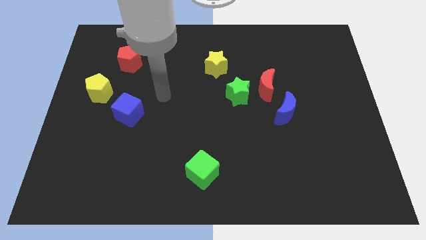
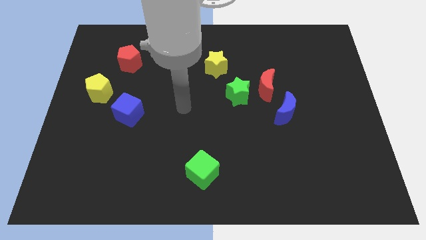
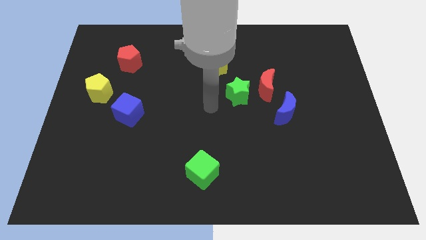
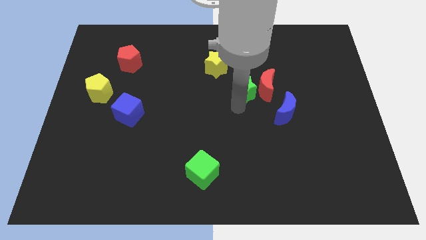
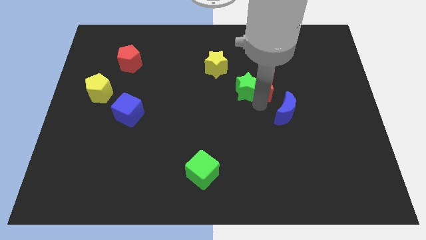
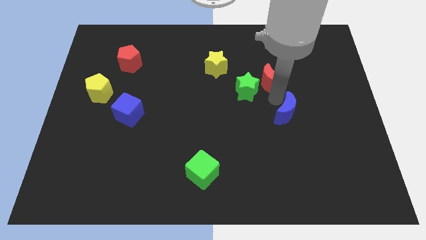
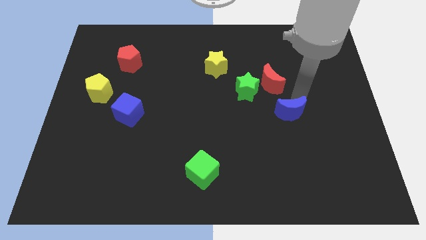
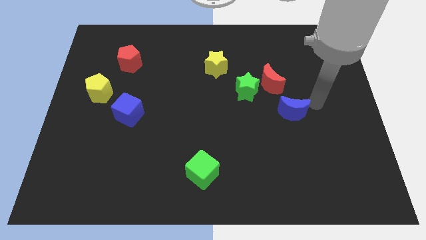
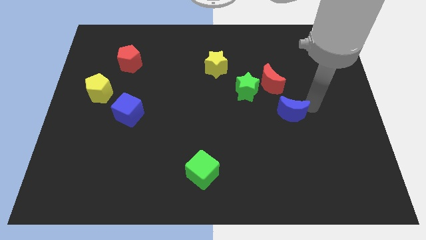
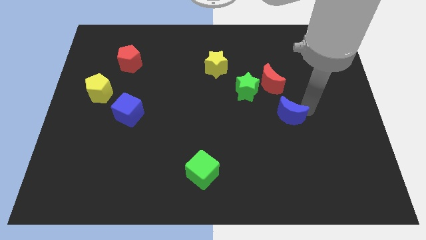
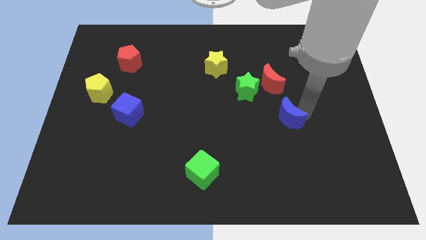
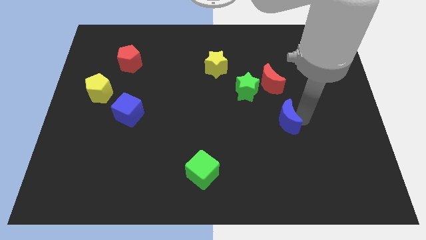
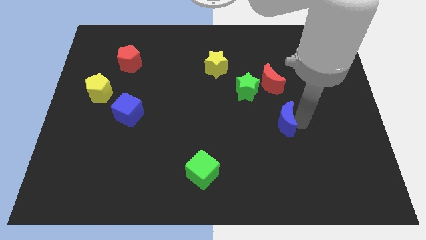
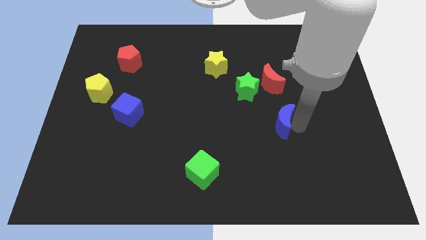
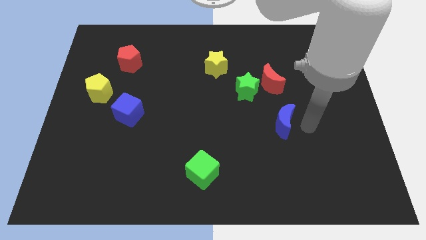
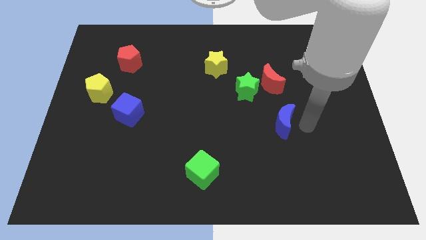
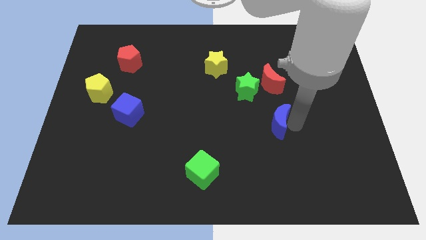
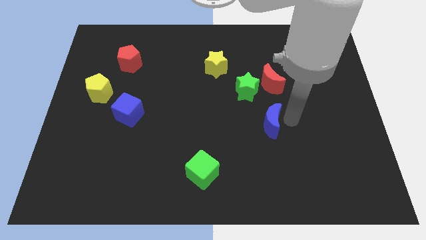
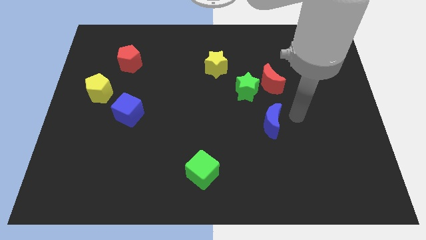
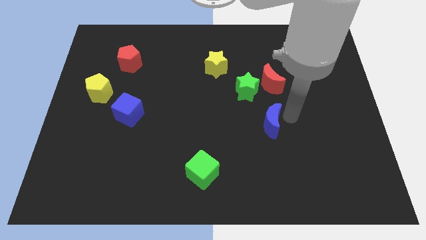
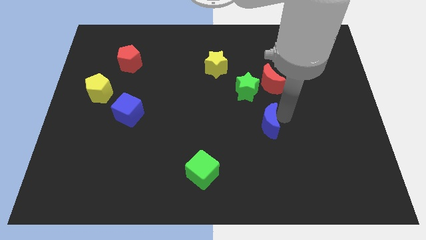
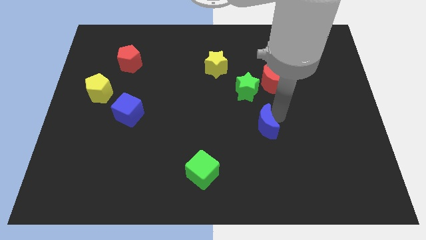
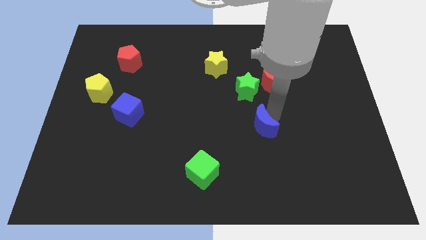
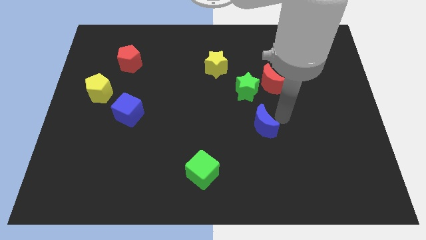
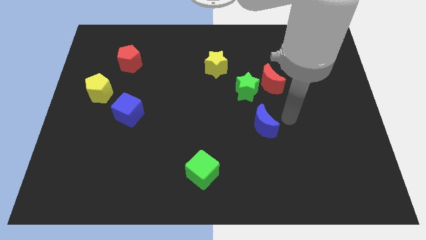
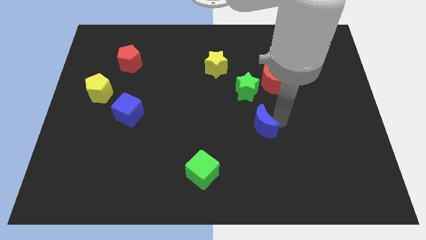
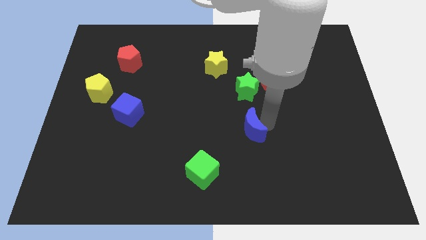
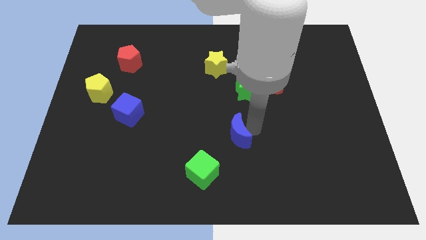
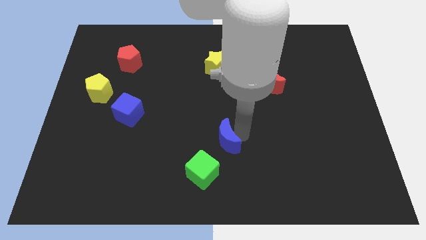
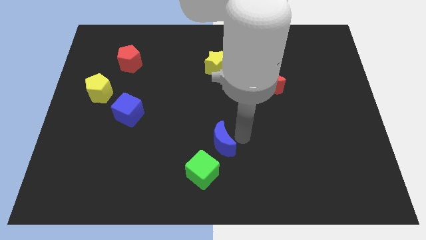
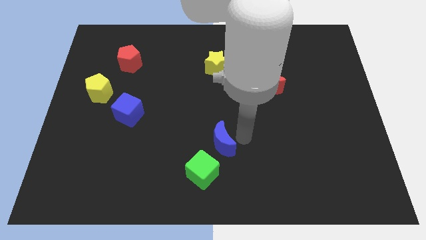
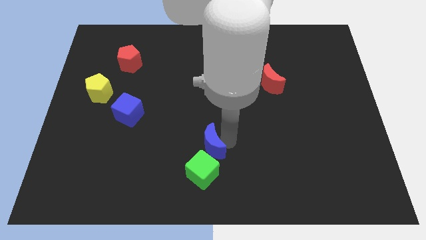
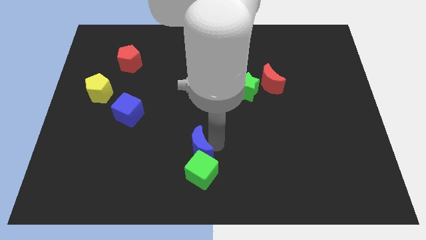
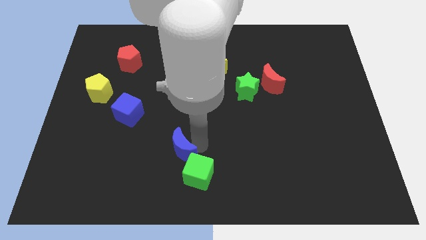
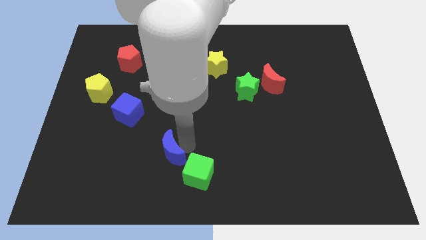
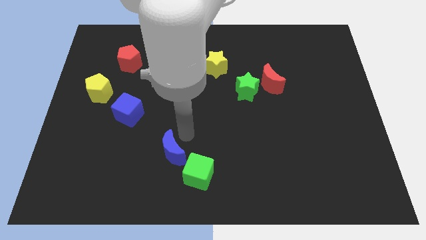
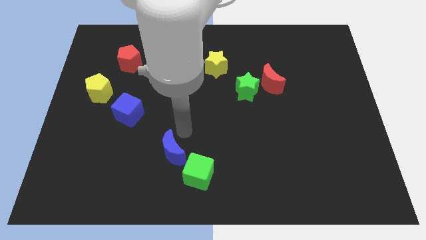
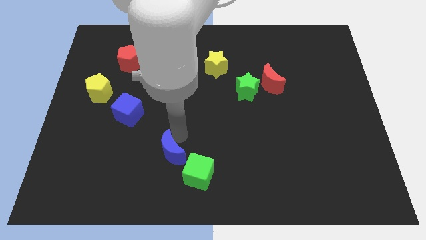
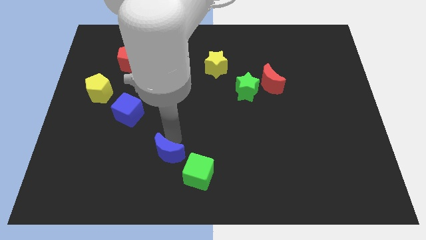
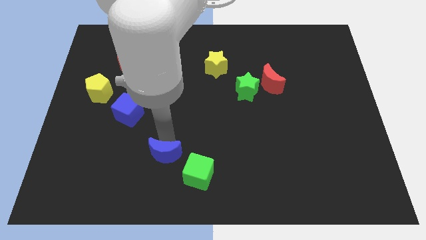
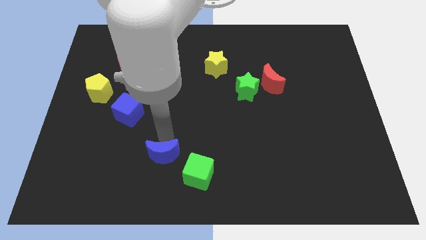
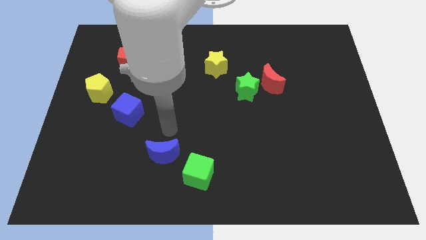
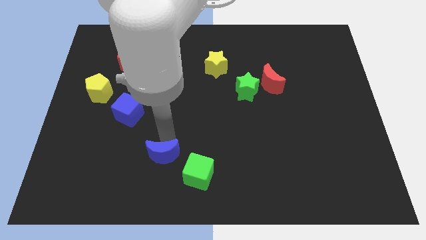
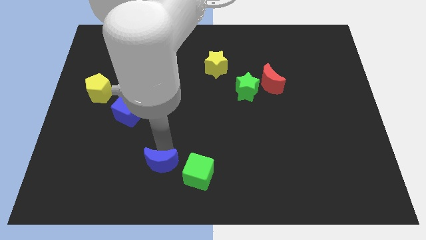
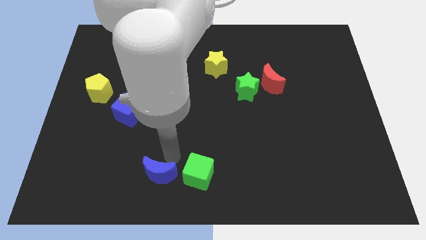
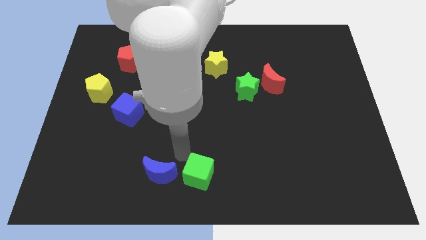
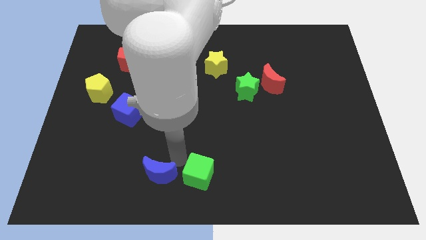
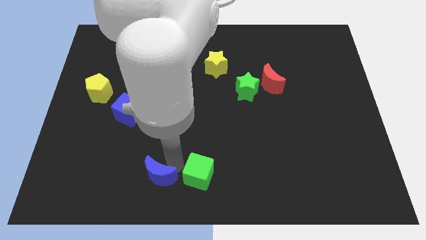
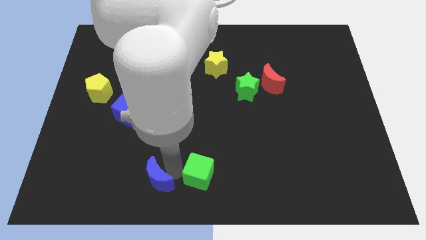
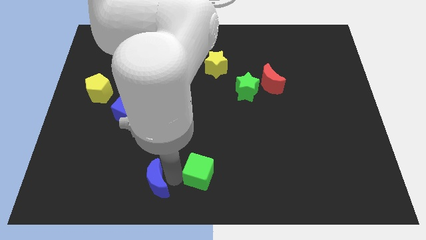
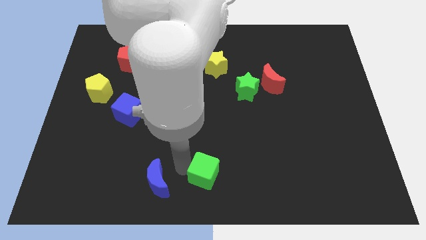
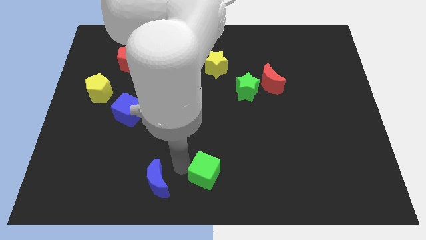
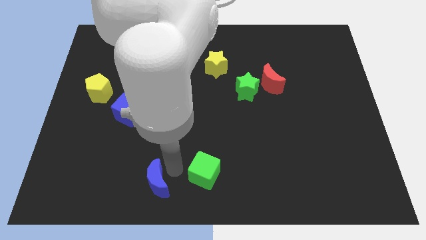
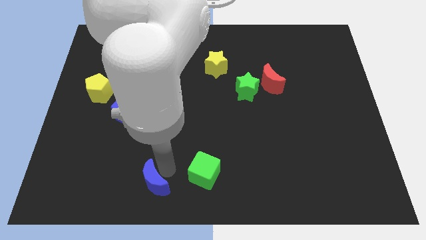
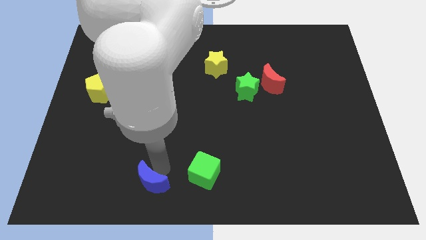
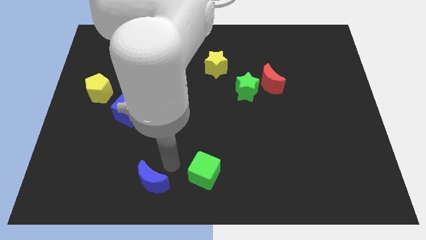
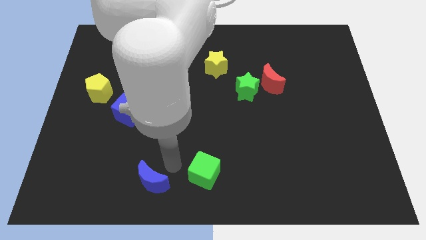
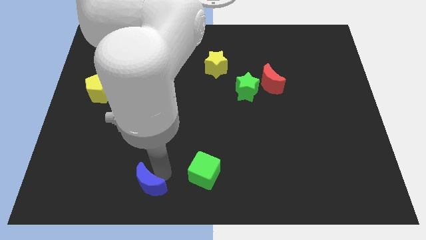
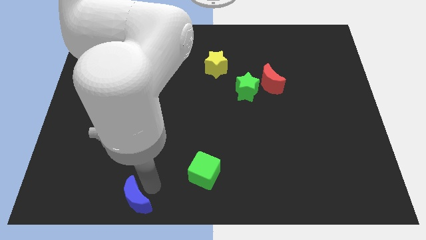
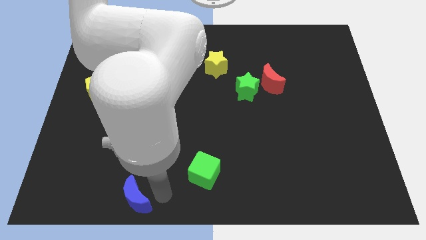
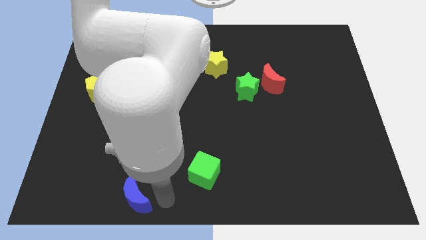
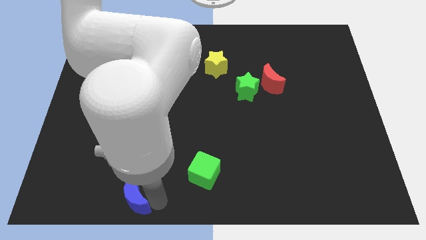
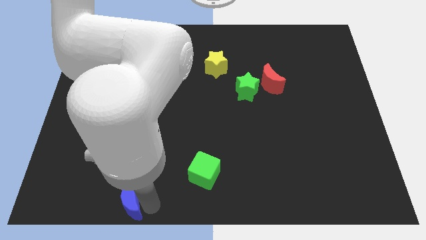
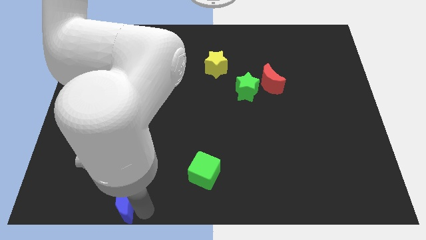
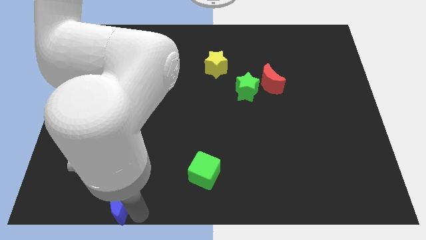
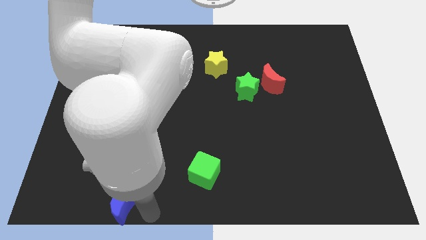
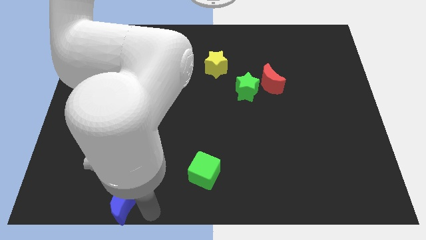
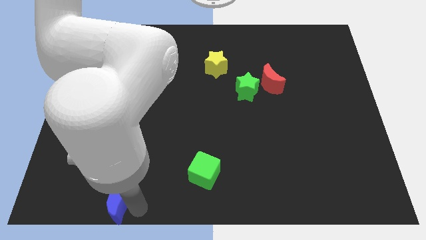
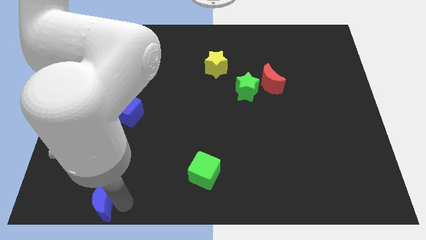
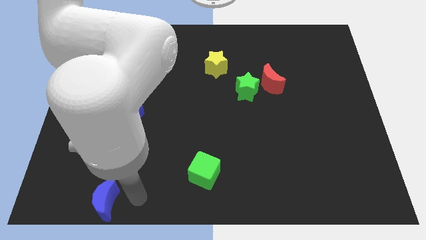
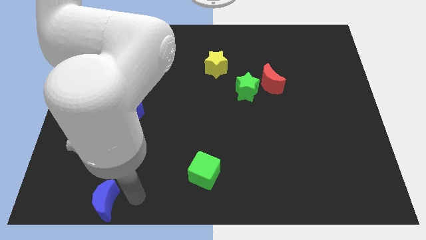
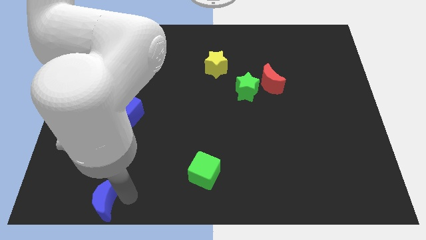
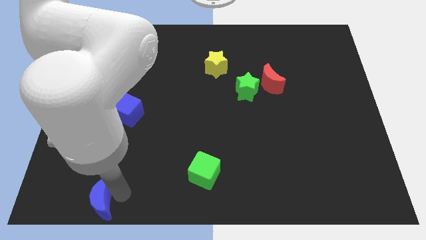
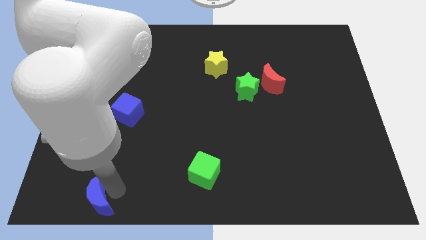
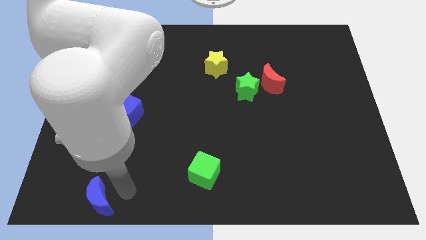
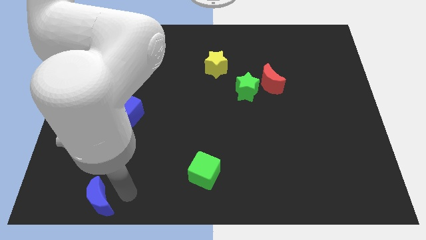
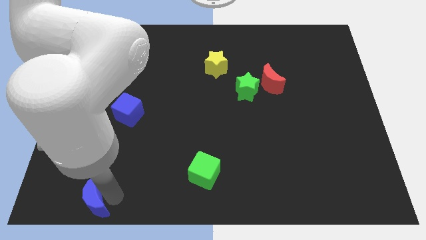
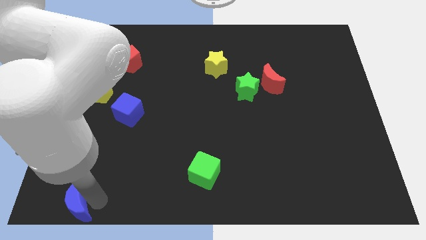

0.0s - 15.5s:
slide the blue moon to the bottom left
